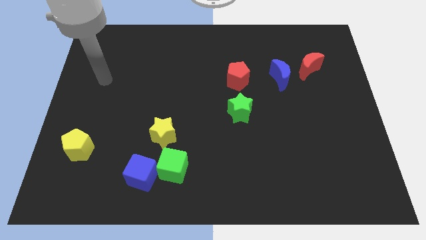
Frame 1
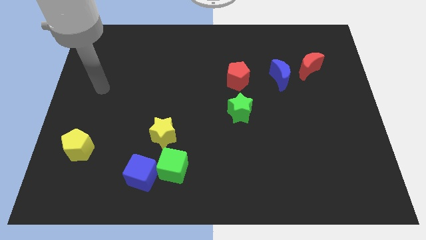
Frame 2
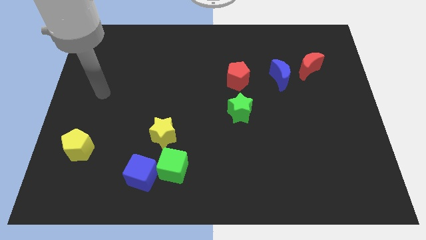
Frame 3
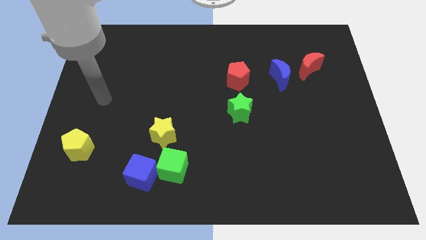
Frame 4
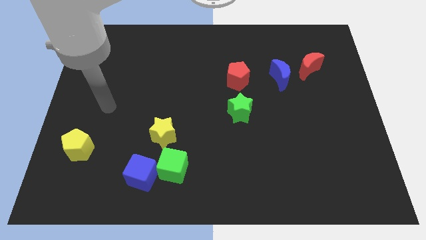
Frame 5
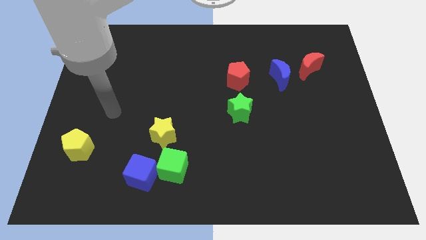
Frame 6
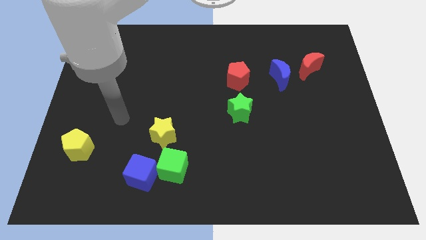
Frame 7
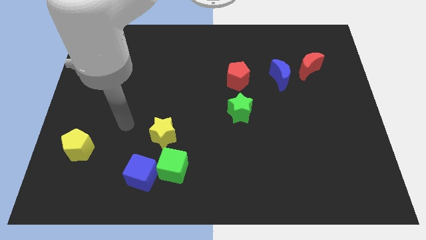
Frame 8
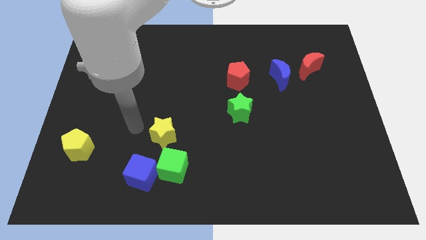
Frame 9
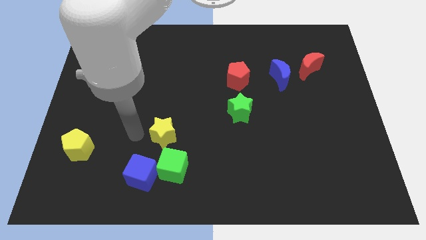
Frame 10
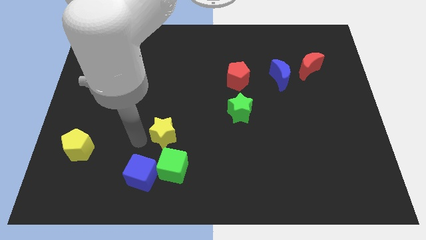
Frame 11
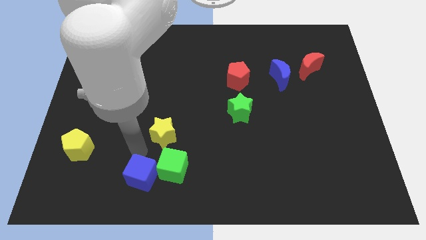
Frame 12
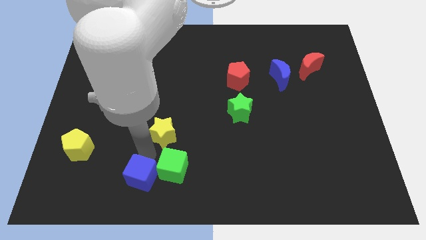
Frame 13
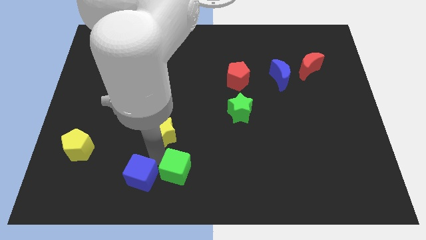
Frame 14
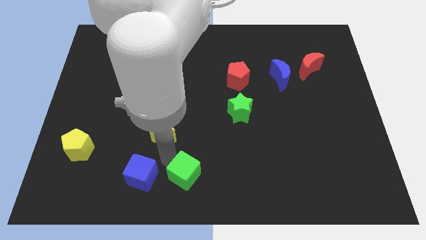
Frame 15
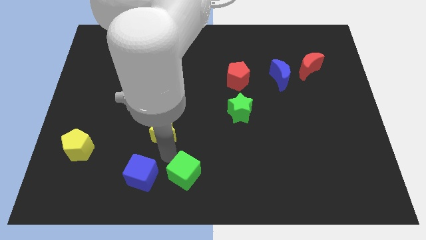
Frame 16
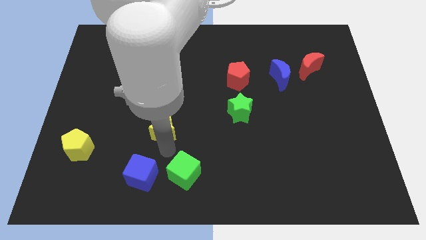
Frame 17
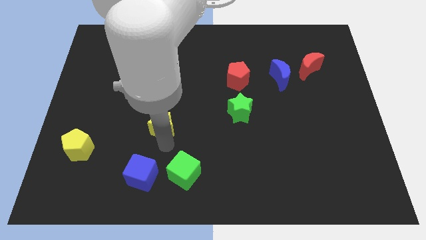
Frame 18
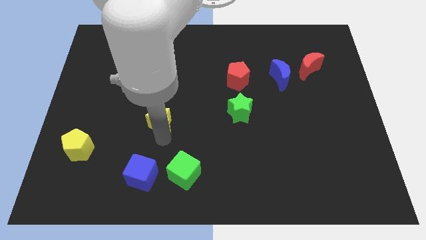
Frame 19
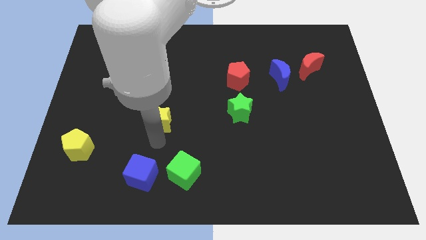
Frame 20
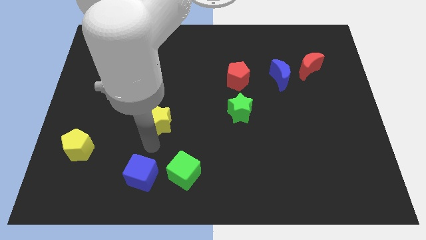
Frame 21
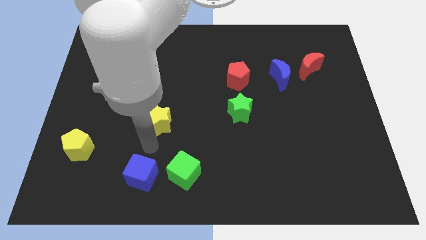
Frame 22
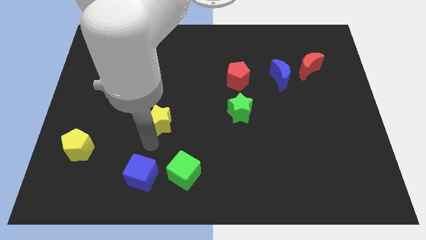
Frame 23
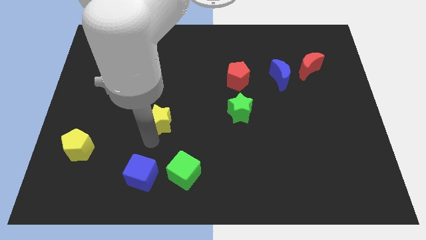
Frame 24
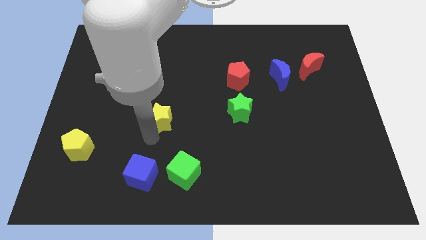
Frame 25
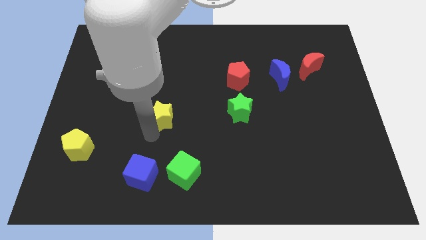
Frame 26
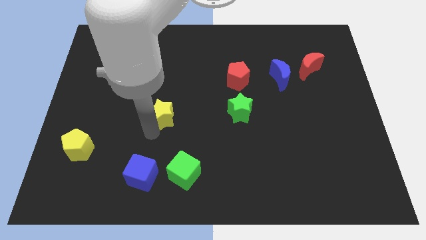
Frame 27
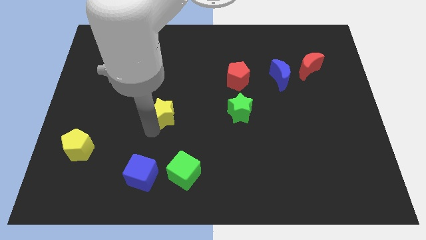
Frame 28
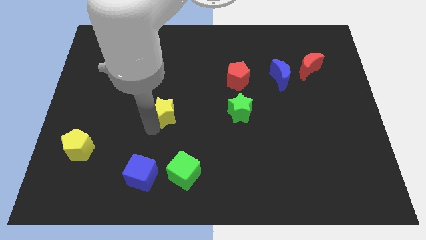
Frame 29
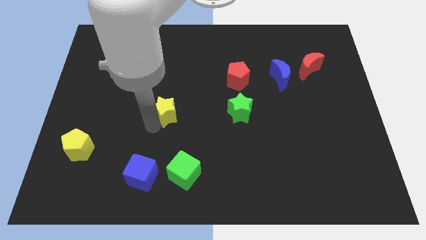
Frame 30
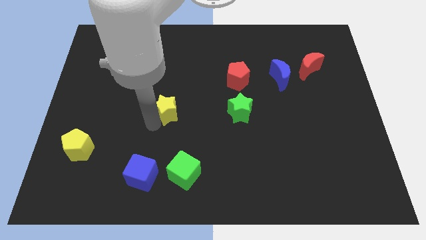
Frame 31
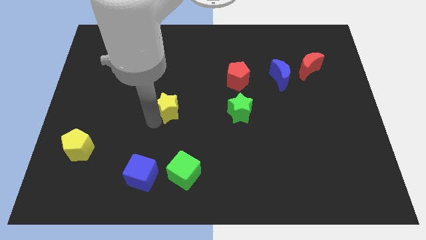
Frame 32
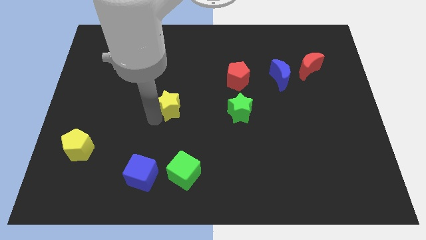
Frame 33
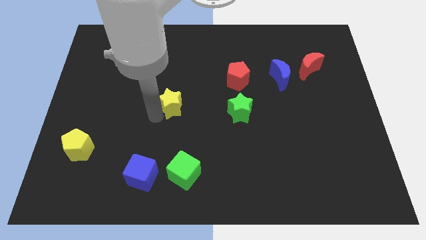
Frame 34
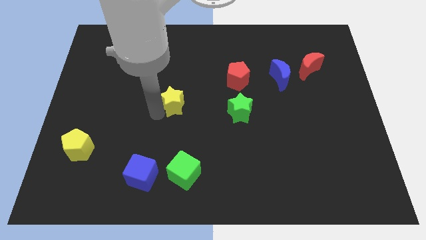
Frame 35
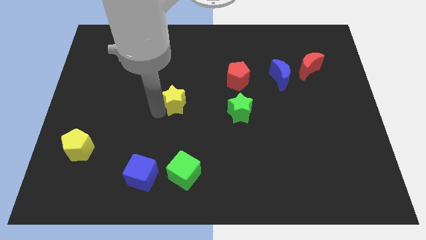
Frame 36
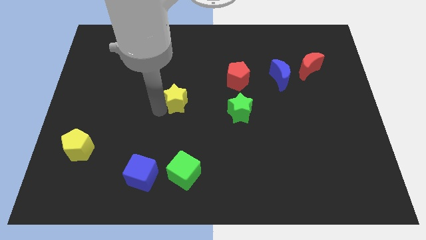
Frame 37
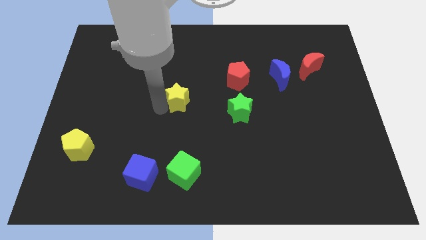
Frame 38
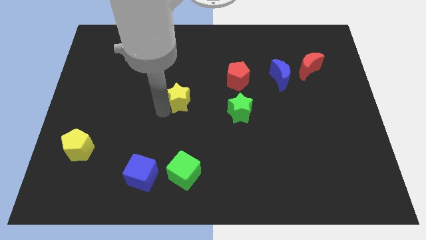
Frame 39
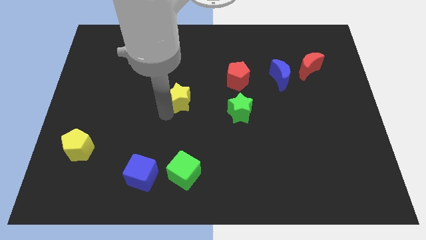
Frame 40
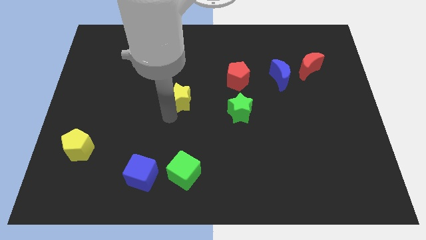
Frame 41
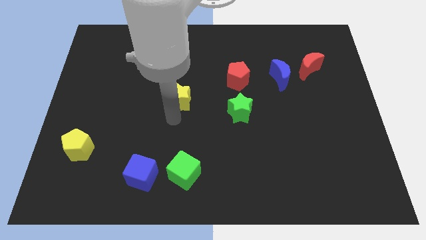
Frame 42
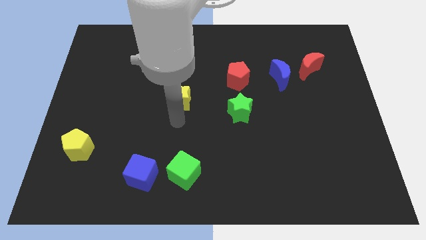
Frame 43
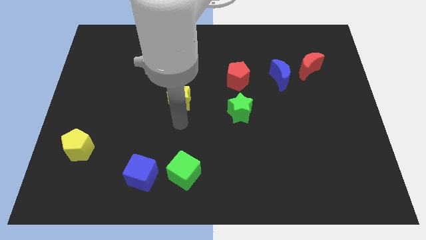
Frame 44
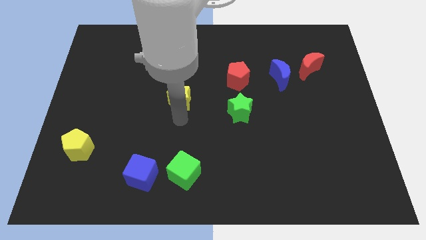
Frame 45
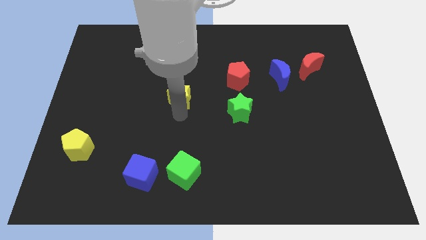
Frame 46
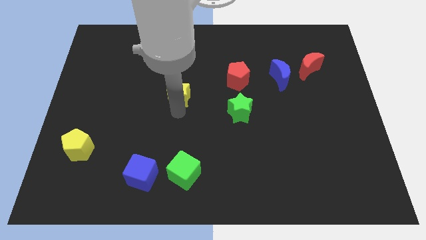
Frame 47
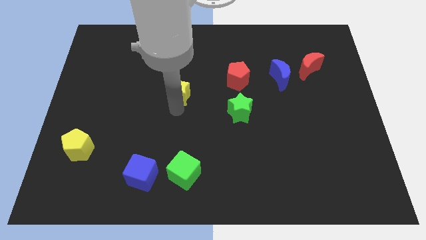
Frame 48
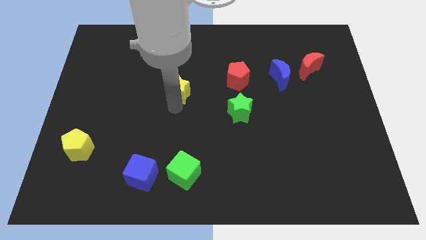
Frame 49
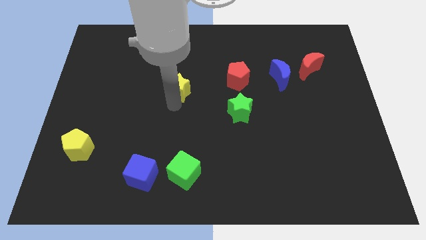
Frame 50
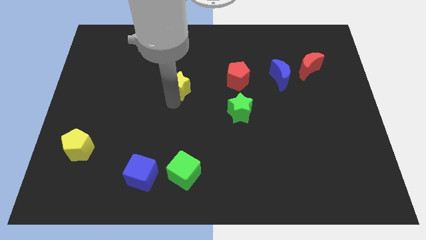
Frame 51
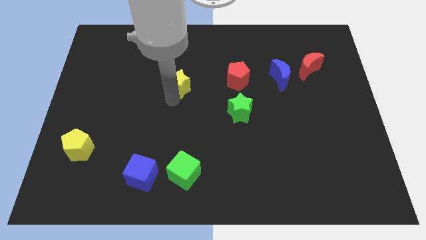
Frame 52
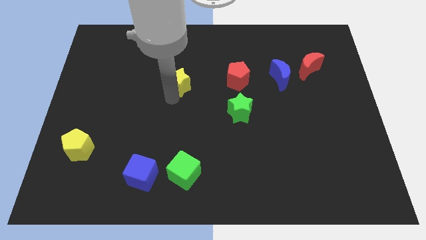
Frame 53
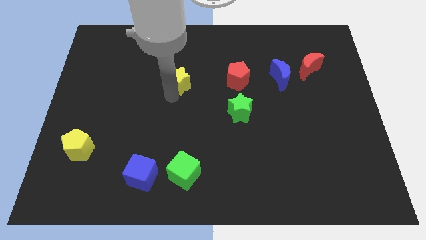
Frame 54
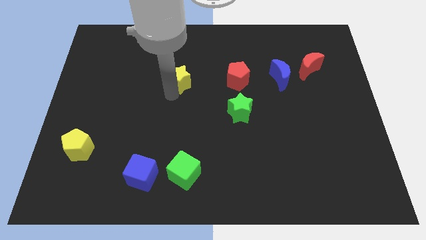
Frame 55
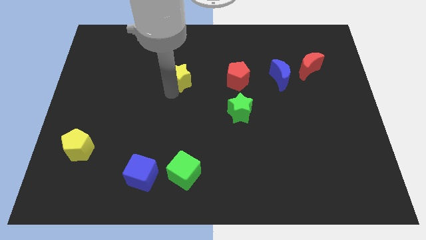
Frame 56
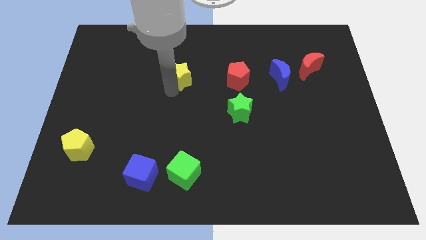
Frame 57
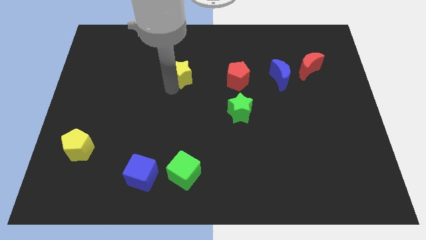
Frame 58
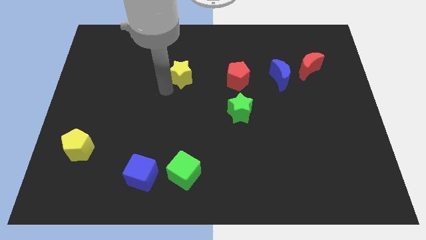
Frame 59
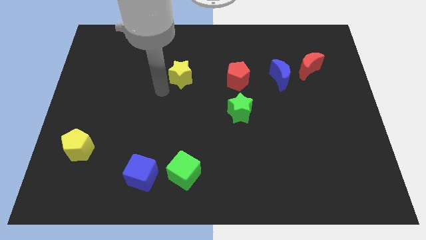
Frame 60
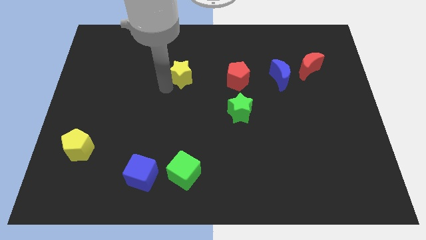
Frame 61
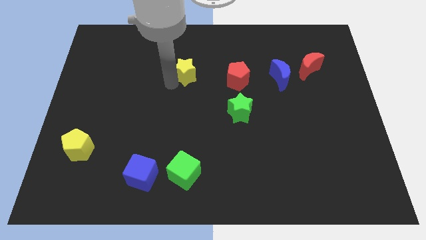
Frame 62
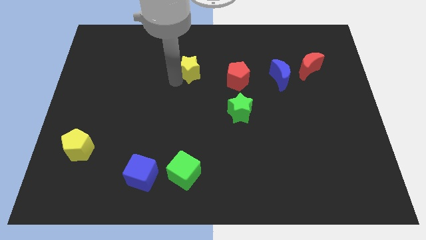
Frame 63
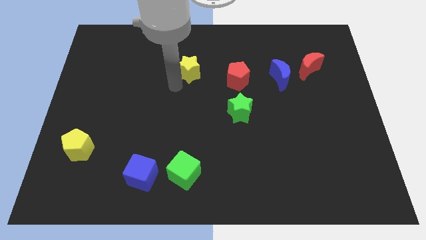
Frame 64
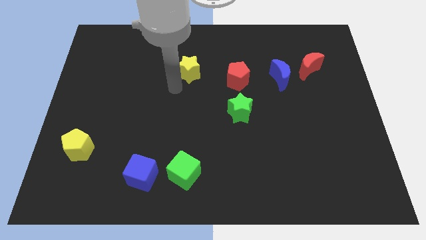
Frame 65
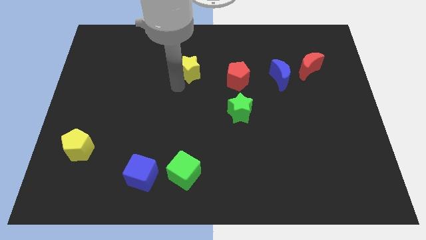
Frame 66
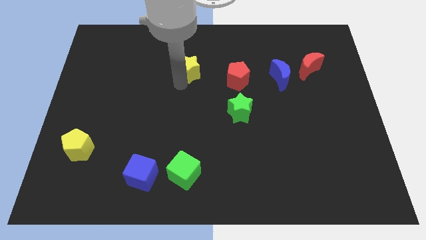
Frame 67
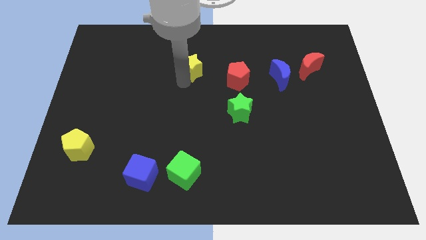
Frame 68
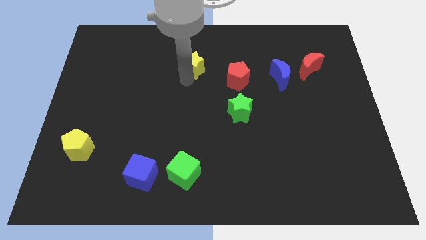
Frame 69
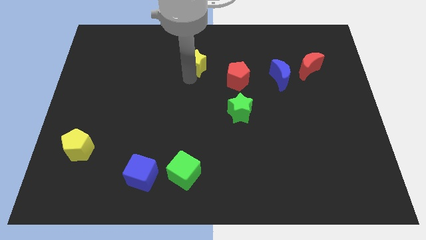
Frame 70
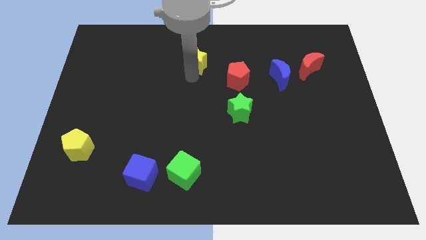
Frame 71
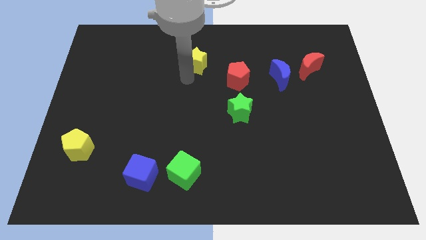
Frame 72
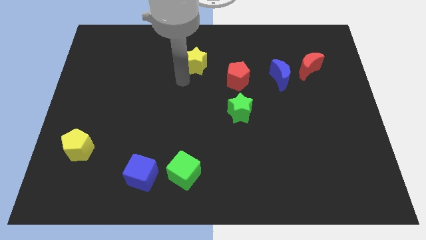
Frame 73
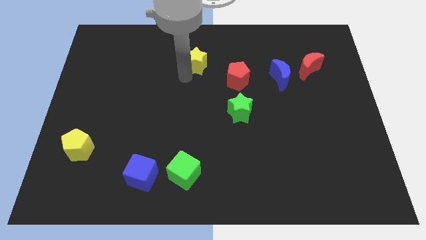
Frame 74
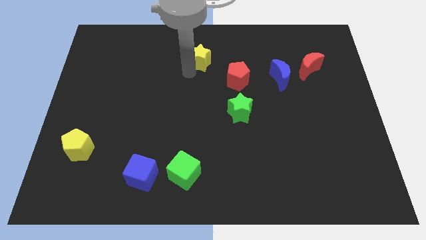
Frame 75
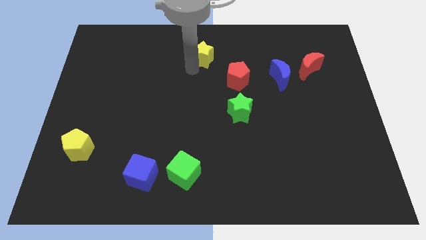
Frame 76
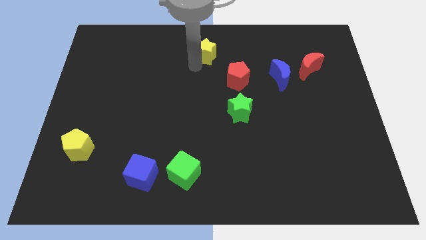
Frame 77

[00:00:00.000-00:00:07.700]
push the yellow star to the towards your base
